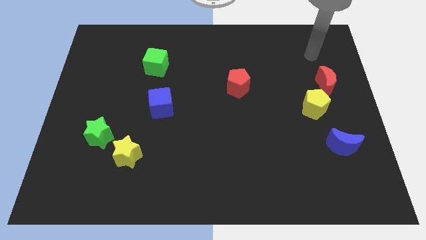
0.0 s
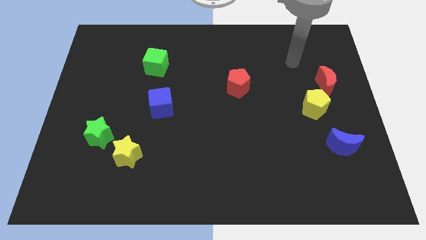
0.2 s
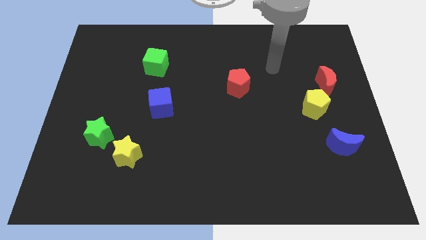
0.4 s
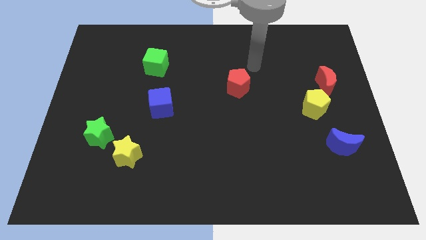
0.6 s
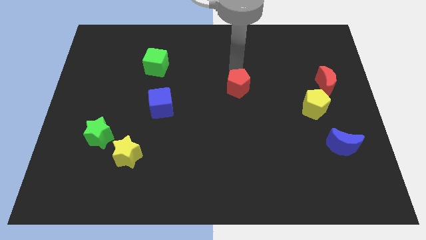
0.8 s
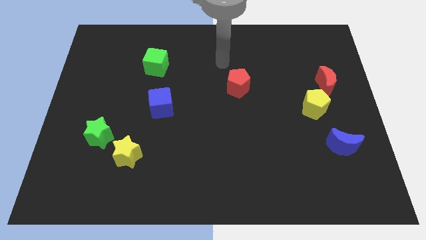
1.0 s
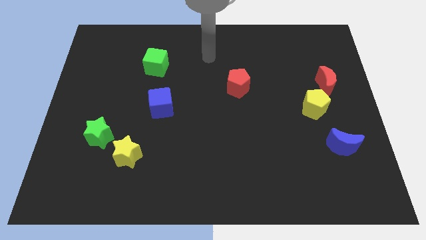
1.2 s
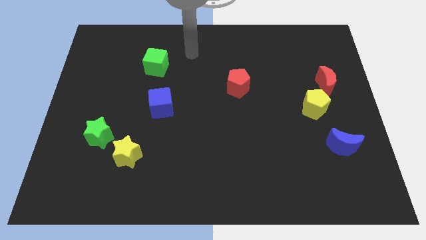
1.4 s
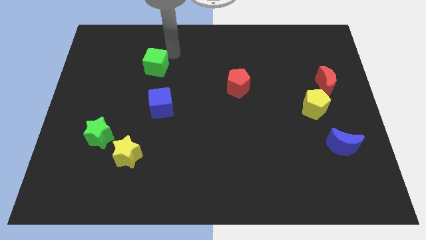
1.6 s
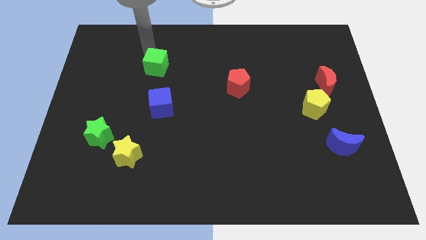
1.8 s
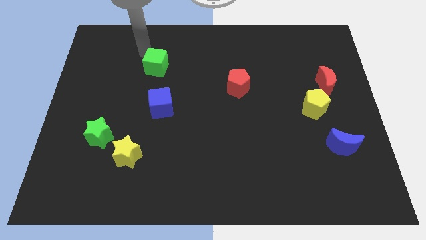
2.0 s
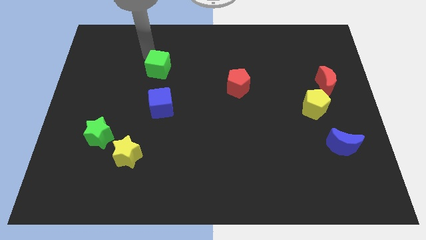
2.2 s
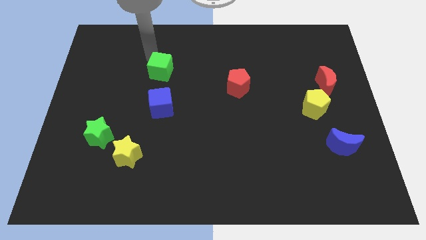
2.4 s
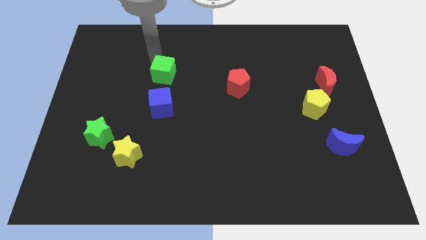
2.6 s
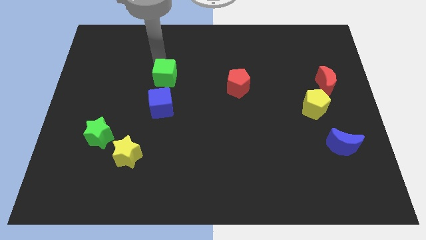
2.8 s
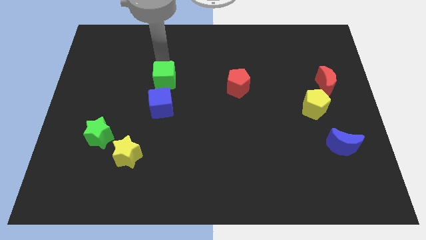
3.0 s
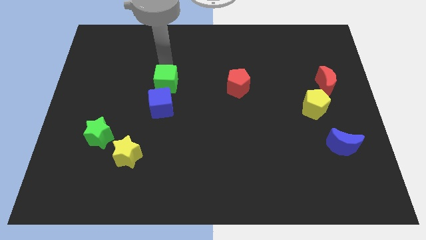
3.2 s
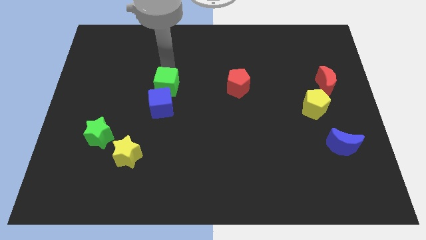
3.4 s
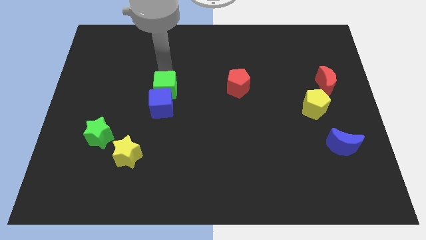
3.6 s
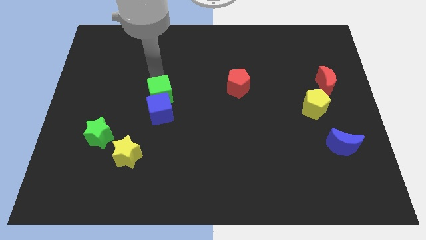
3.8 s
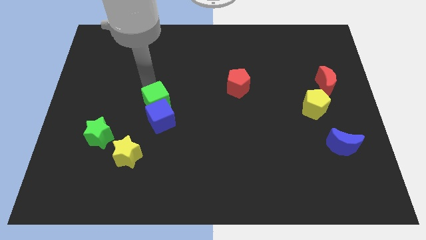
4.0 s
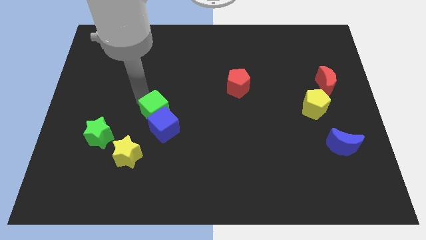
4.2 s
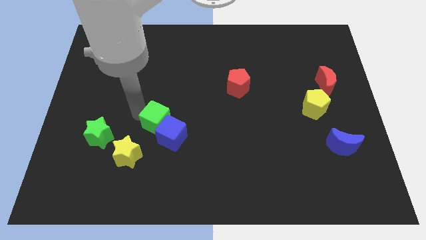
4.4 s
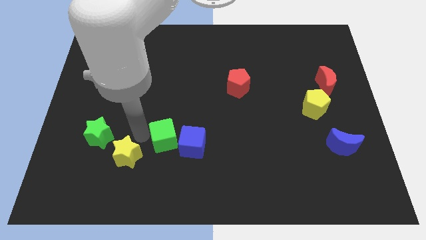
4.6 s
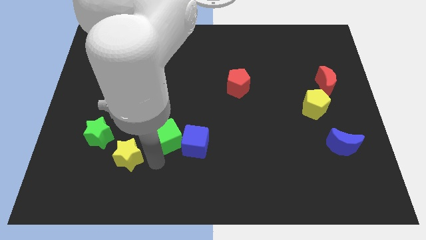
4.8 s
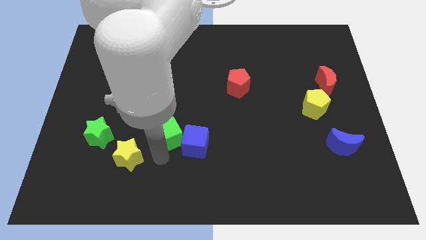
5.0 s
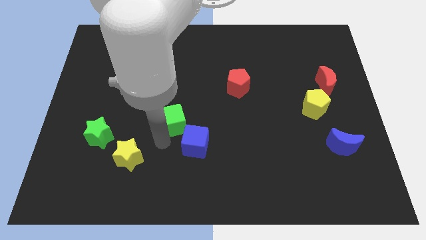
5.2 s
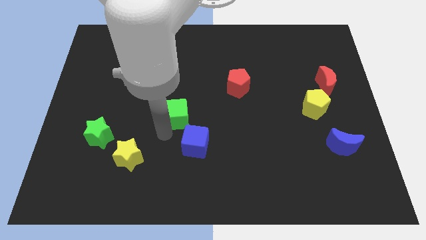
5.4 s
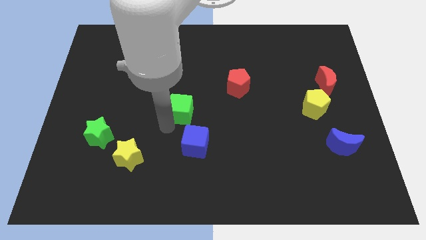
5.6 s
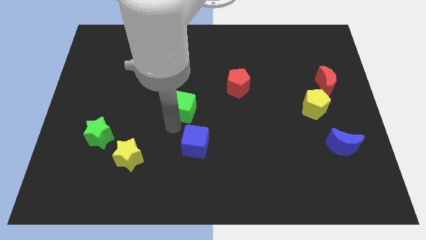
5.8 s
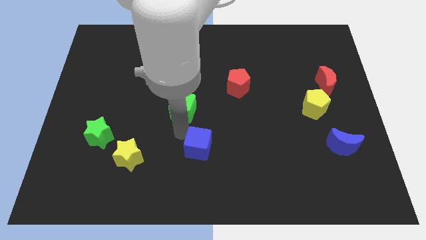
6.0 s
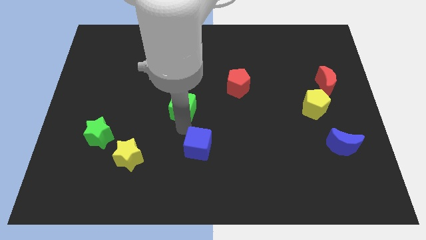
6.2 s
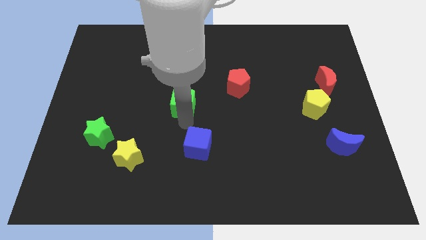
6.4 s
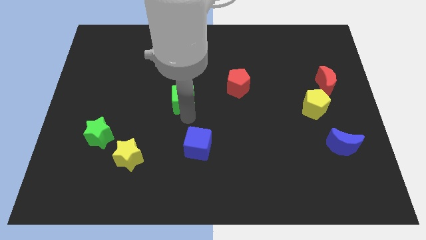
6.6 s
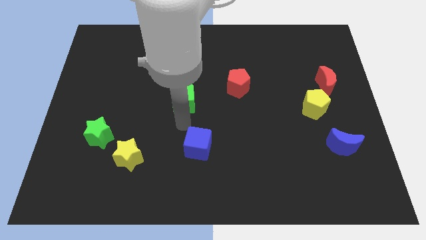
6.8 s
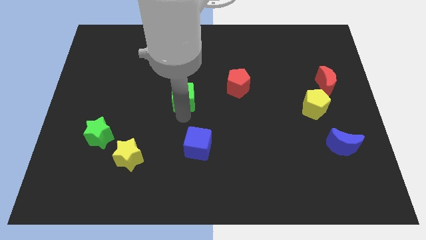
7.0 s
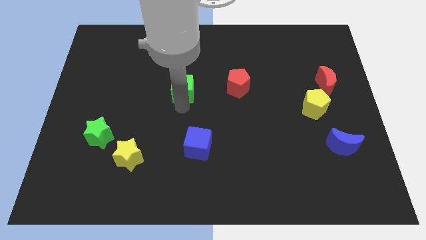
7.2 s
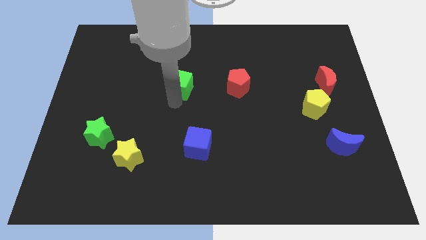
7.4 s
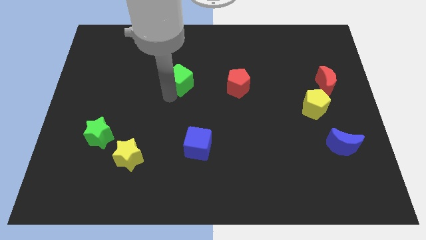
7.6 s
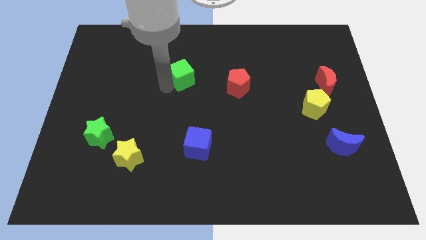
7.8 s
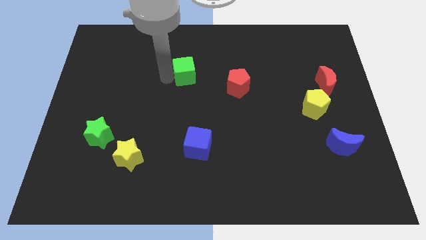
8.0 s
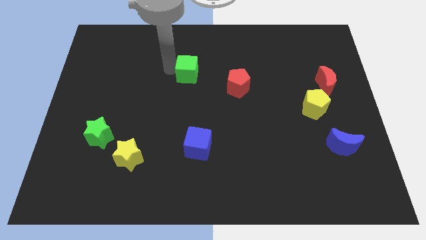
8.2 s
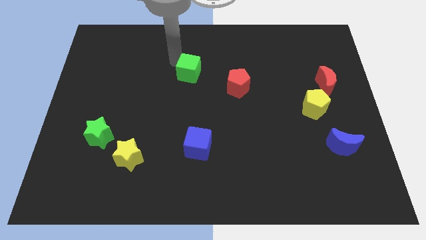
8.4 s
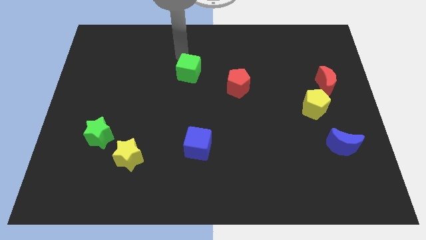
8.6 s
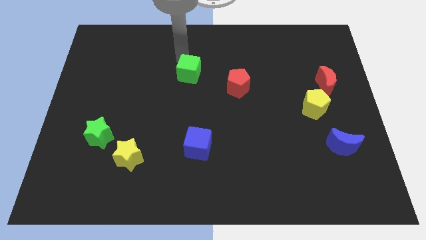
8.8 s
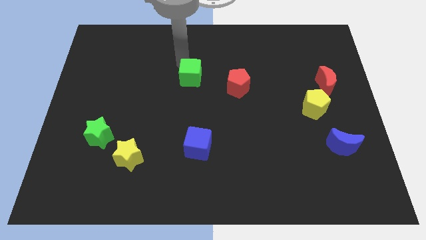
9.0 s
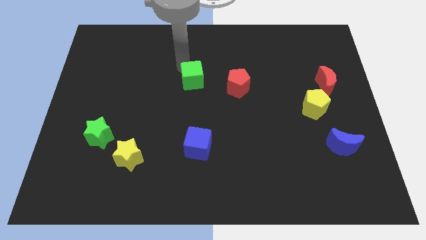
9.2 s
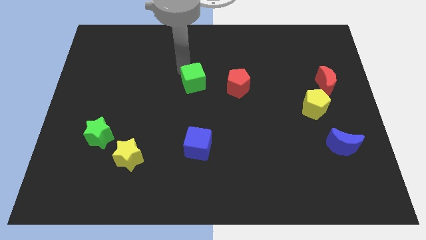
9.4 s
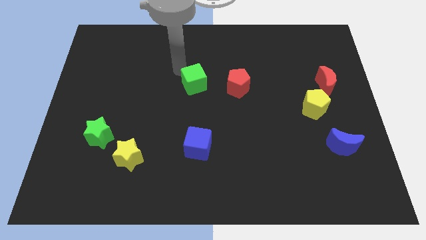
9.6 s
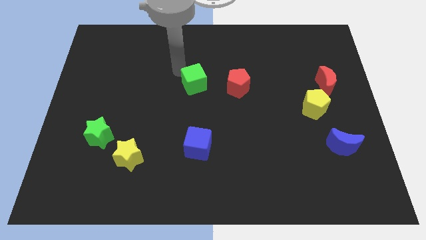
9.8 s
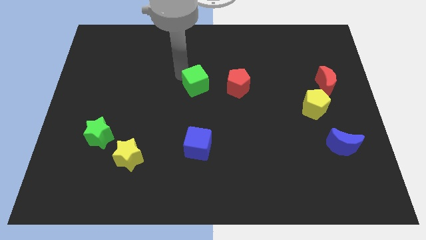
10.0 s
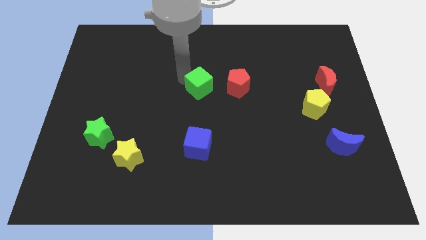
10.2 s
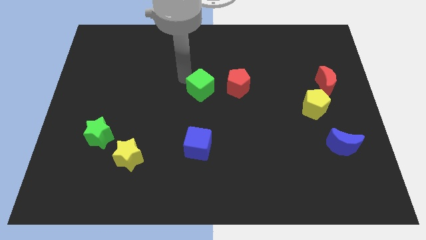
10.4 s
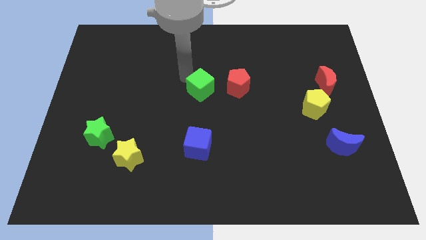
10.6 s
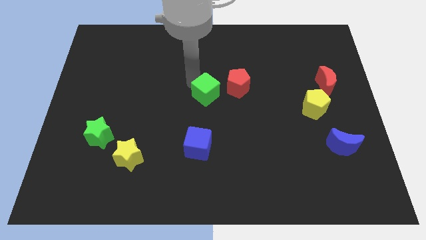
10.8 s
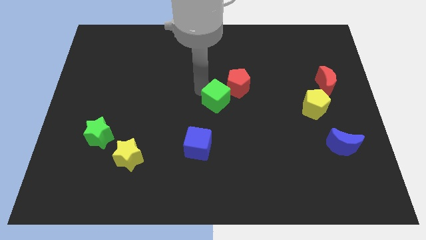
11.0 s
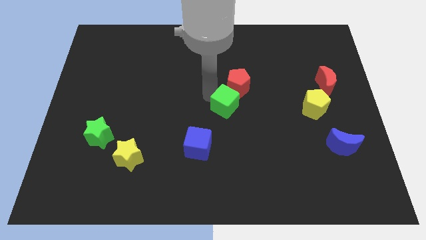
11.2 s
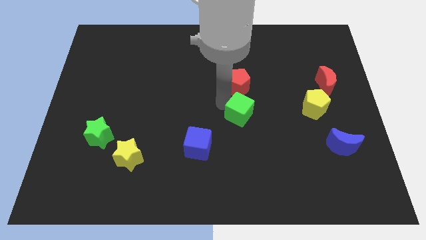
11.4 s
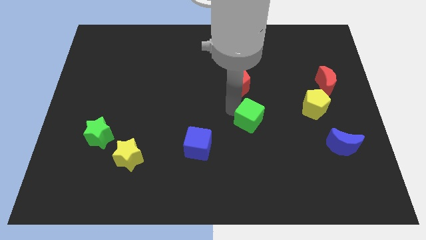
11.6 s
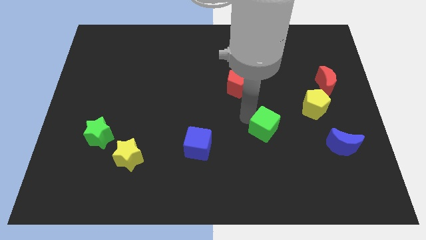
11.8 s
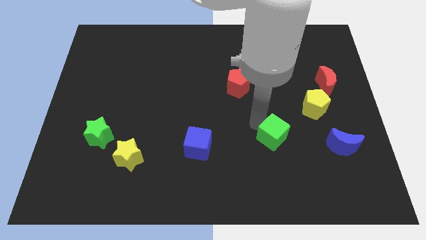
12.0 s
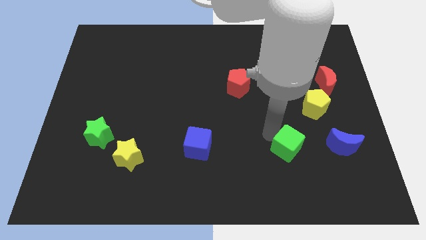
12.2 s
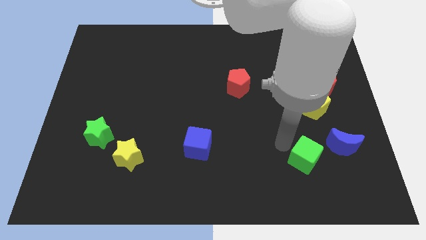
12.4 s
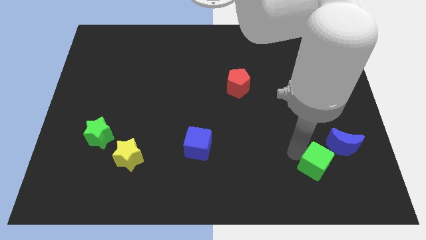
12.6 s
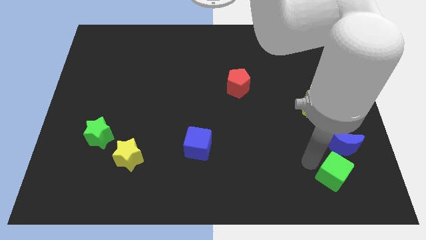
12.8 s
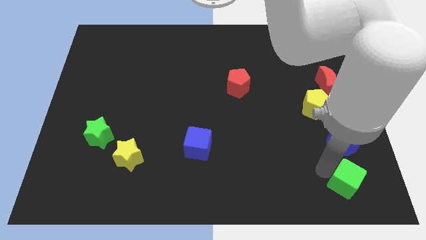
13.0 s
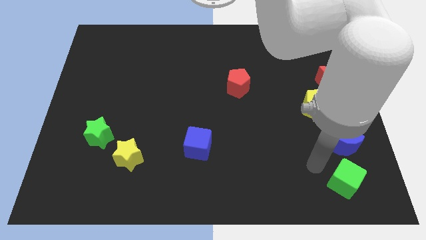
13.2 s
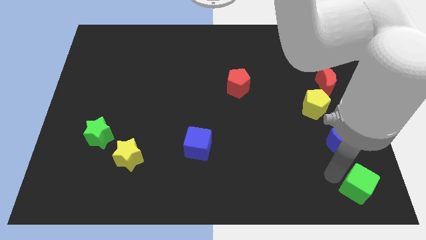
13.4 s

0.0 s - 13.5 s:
move the green cube to the bottom right of the board
